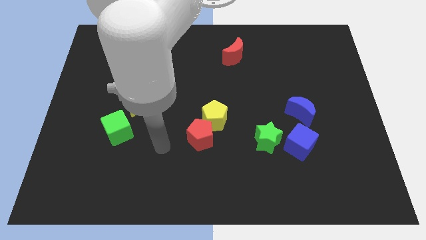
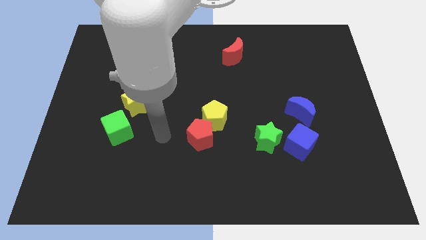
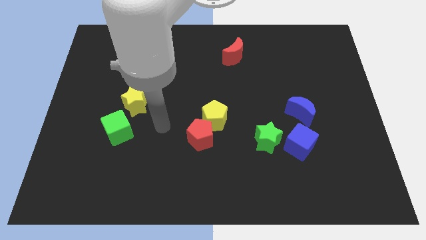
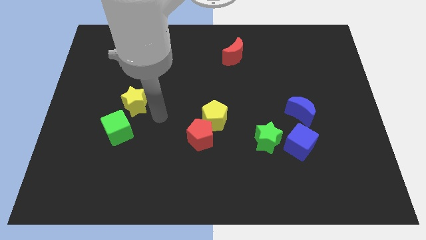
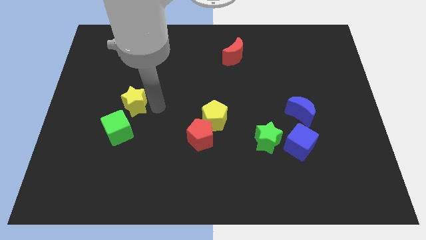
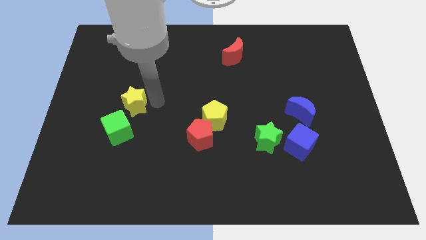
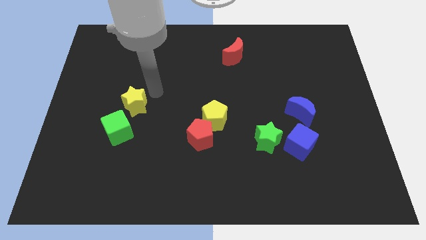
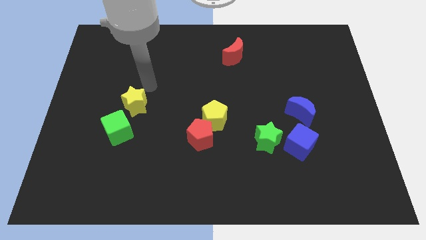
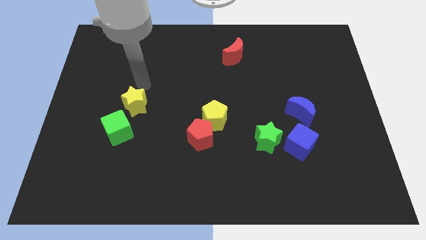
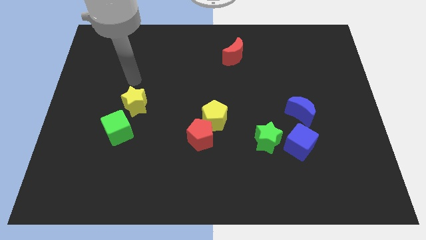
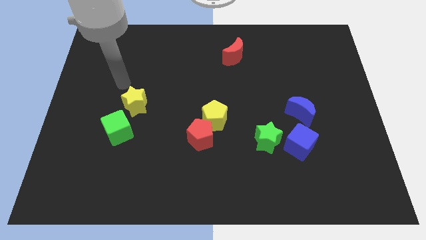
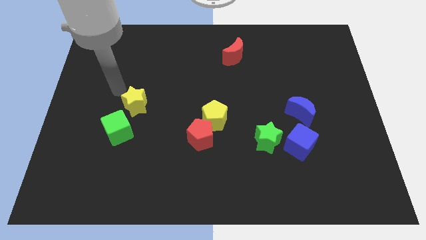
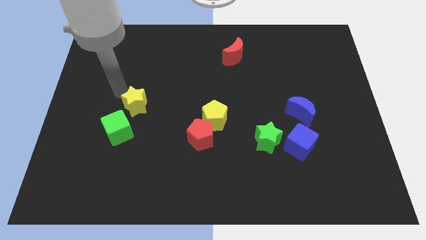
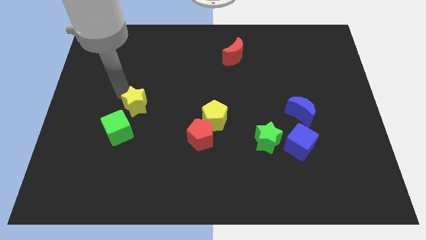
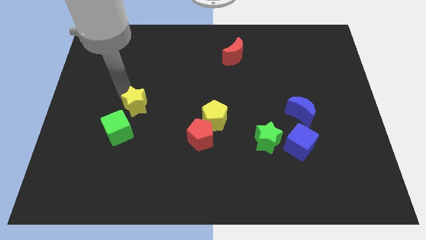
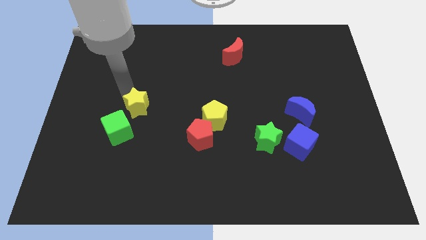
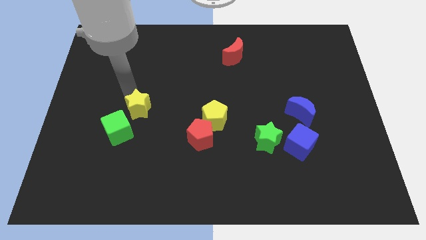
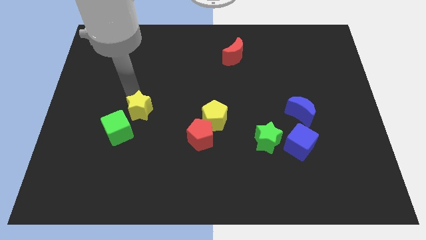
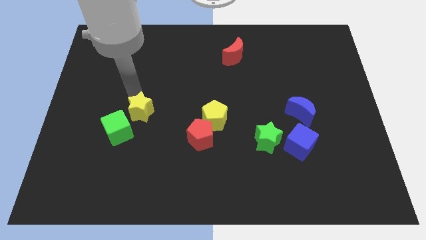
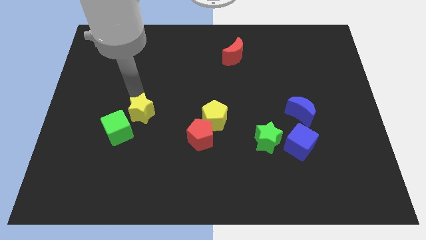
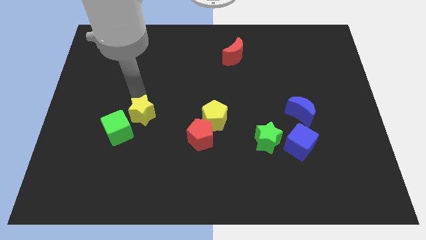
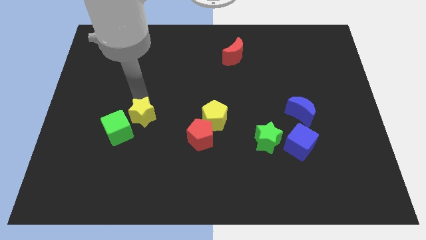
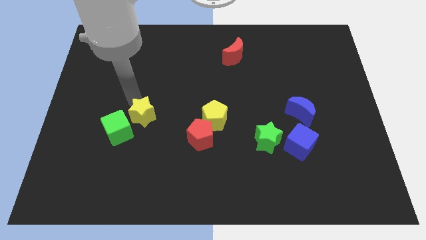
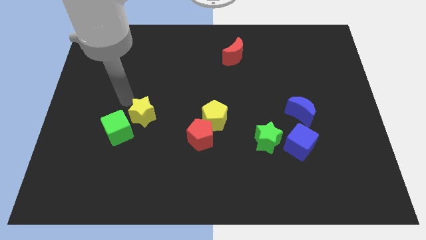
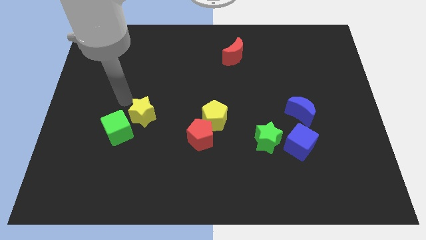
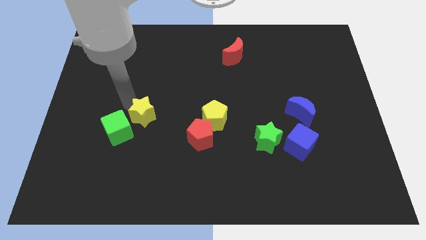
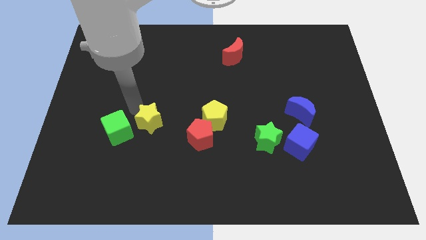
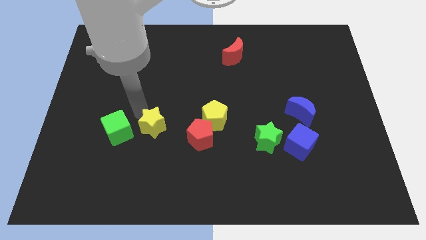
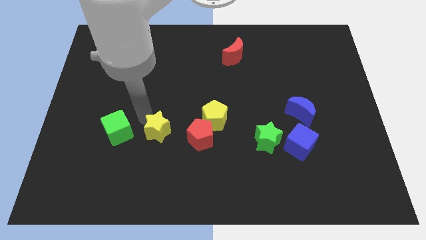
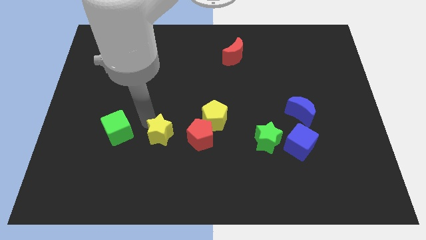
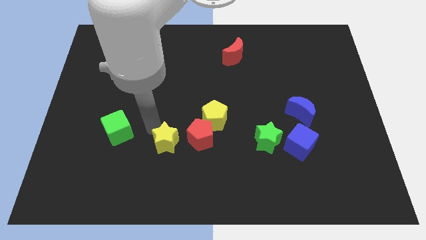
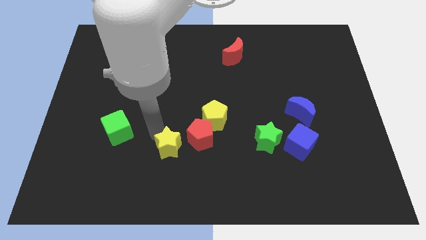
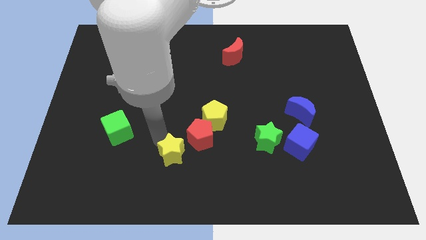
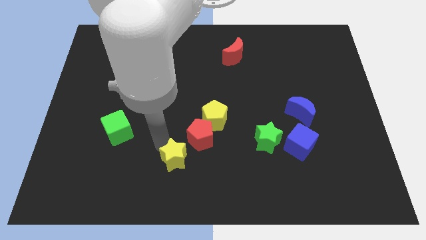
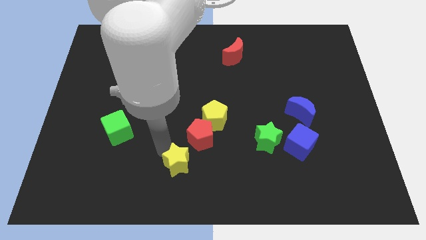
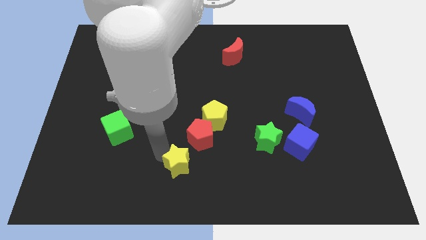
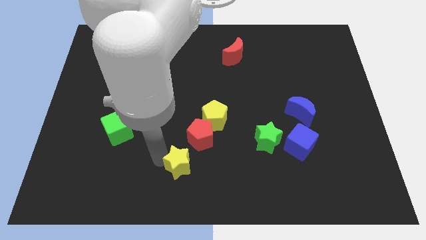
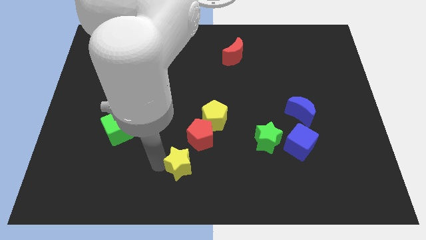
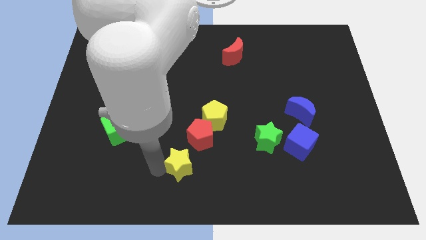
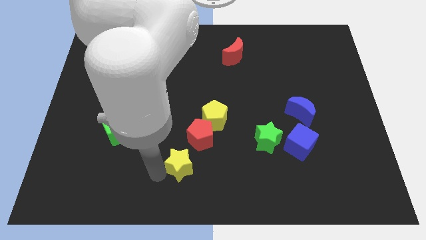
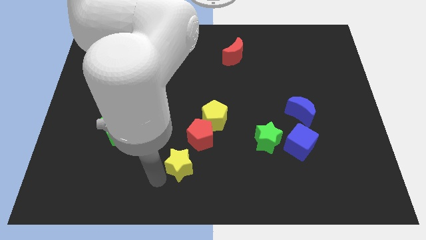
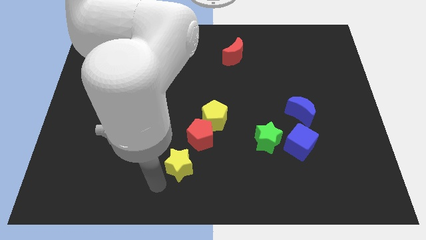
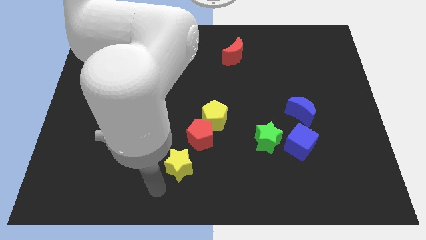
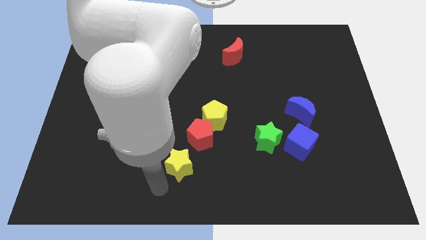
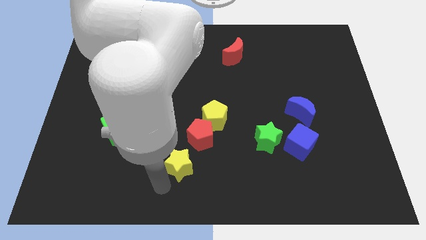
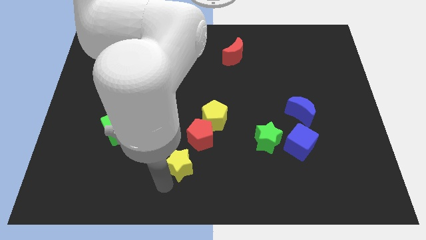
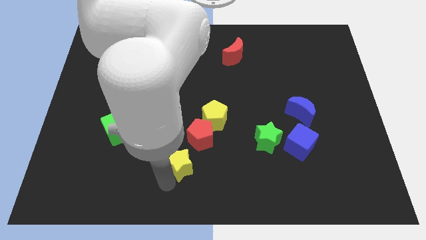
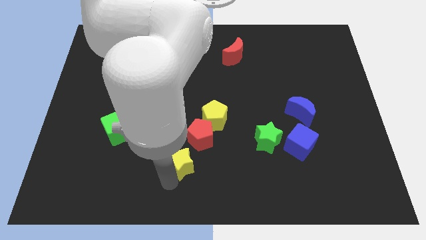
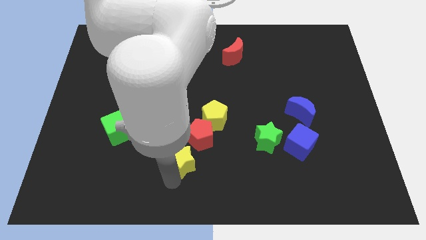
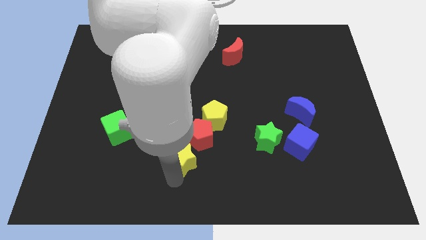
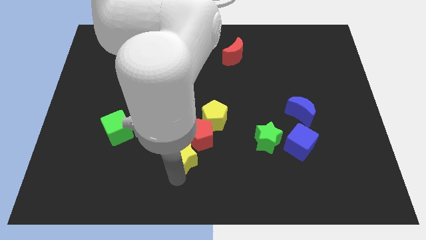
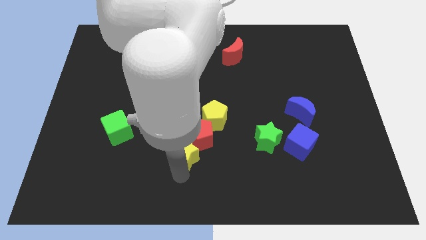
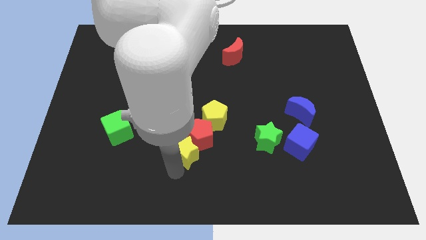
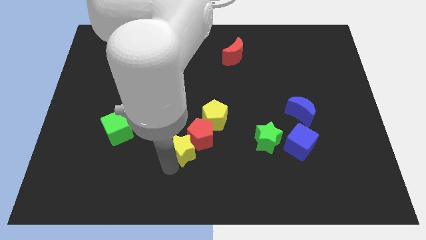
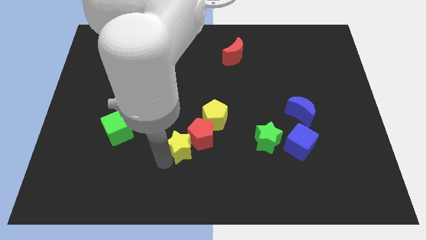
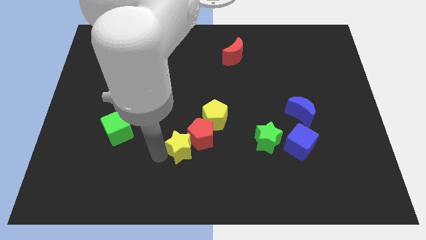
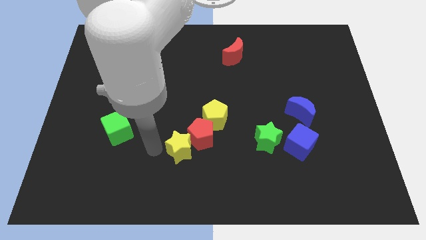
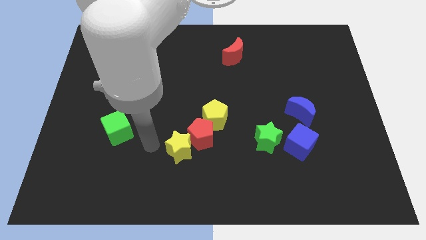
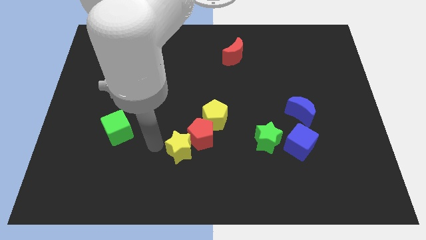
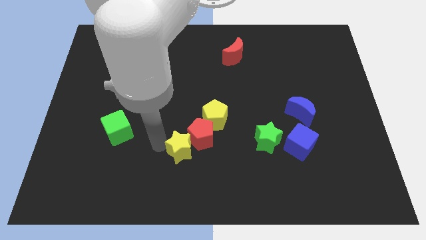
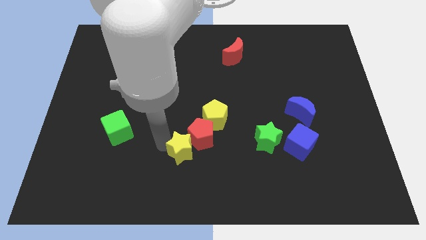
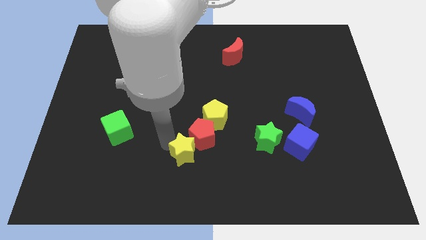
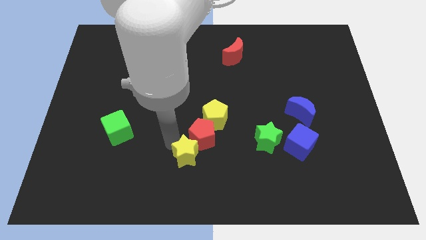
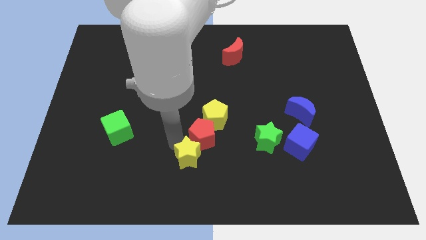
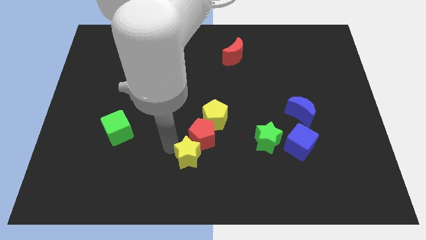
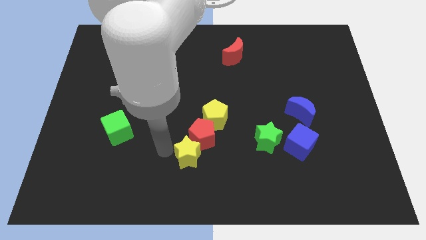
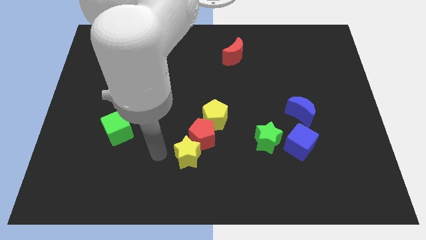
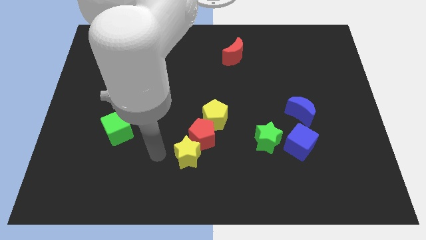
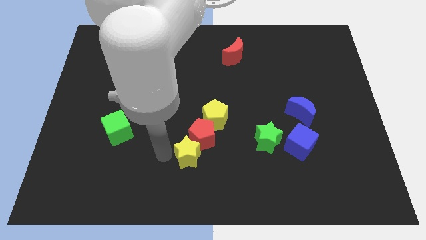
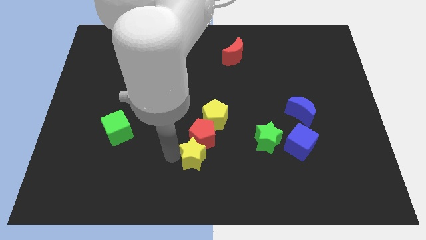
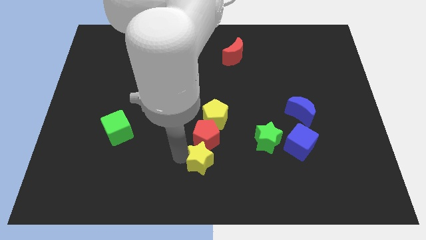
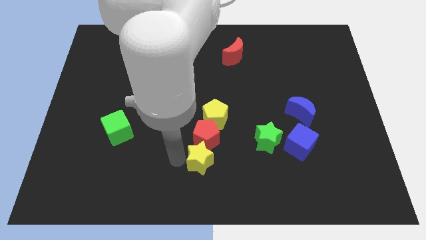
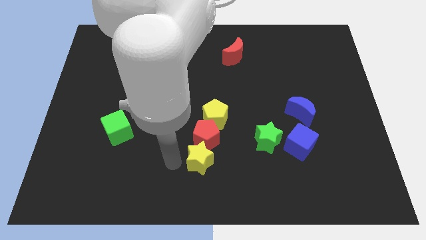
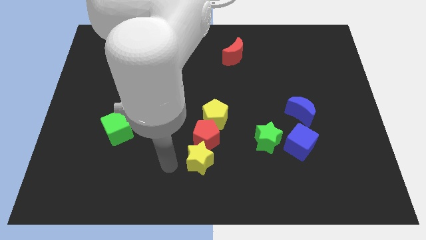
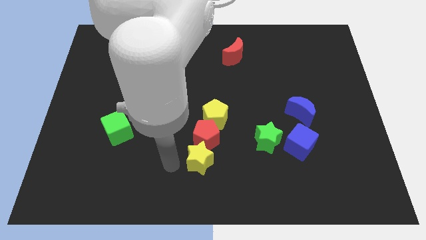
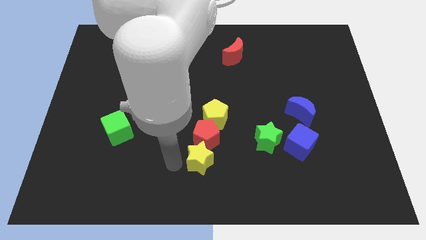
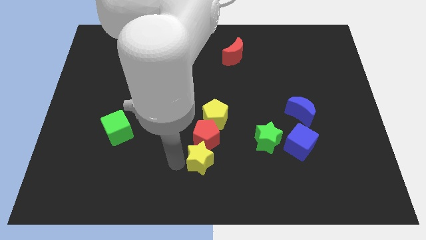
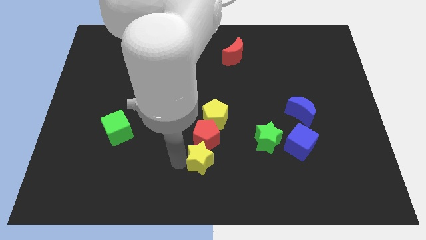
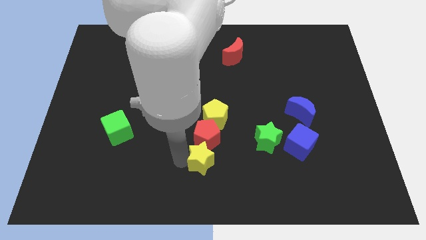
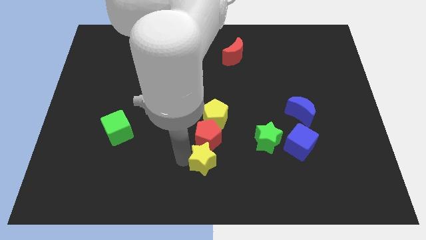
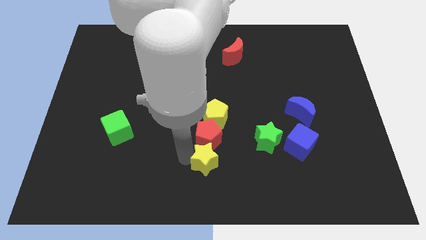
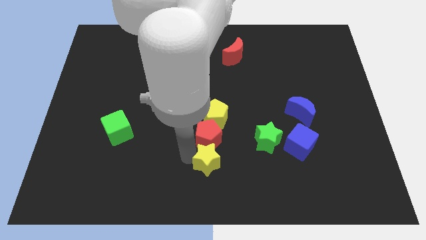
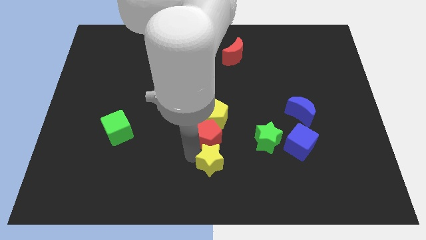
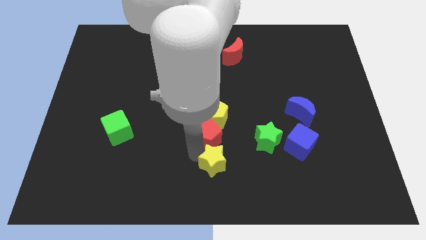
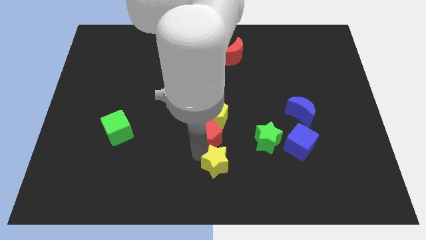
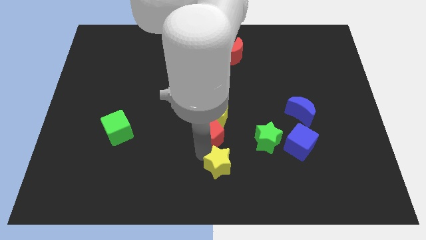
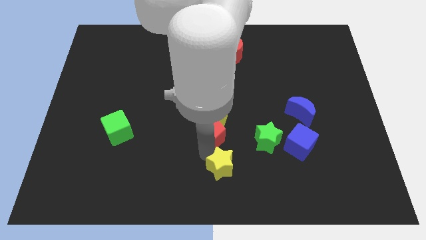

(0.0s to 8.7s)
move the yellow star diagonally down and to the left of the green star
